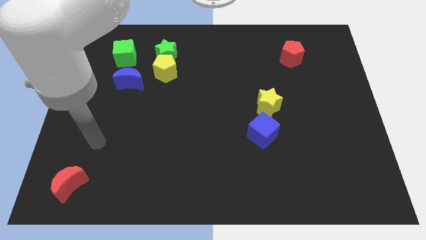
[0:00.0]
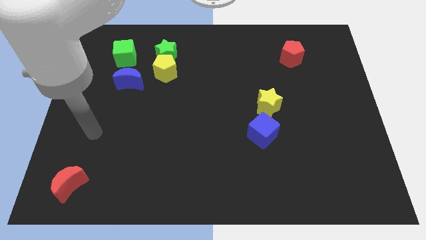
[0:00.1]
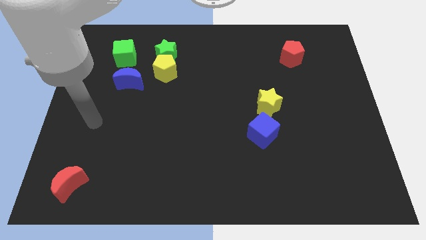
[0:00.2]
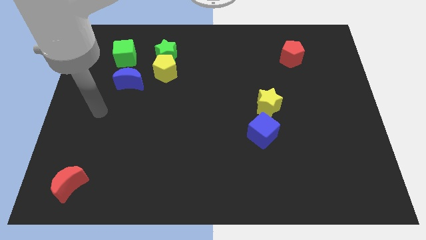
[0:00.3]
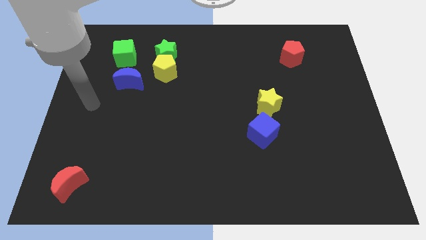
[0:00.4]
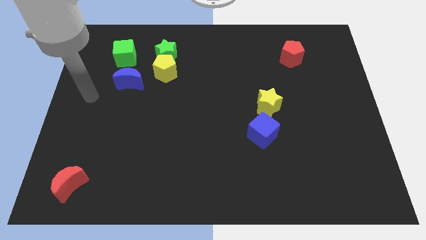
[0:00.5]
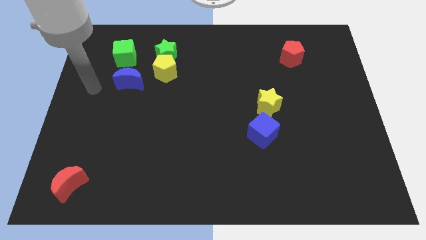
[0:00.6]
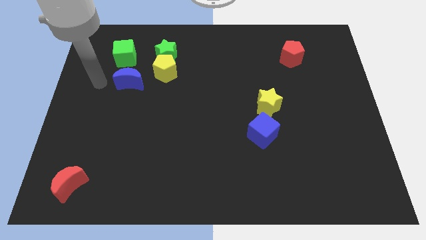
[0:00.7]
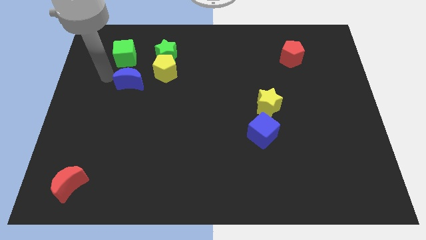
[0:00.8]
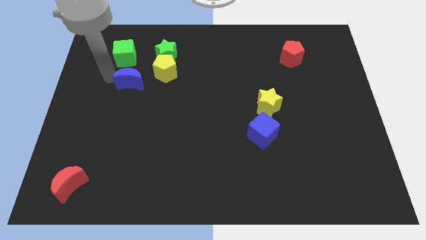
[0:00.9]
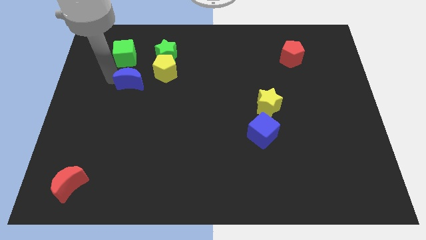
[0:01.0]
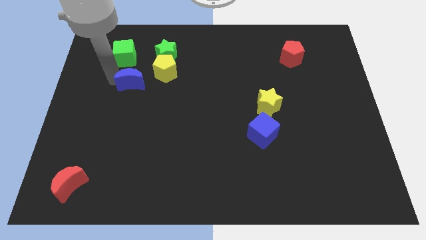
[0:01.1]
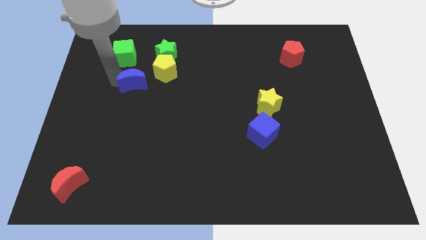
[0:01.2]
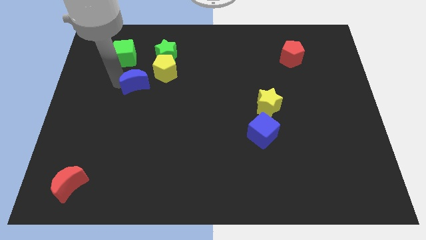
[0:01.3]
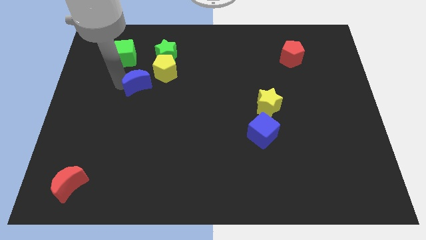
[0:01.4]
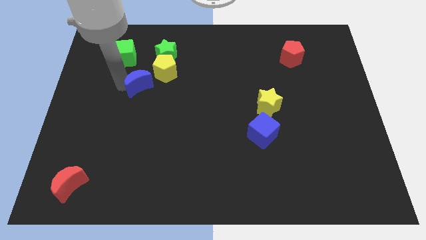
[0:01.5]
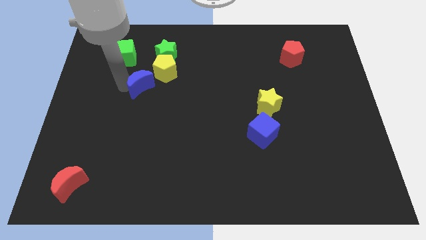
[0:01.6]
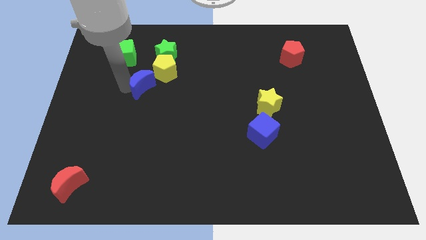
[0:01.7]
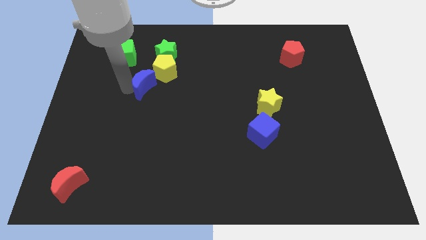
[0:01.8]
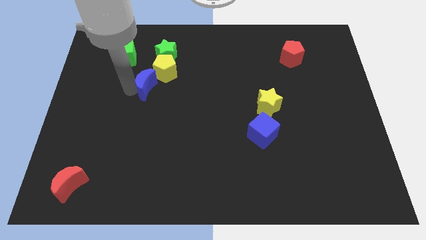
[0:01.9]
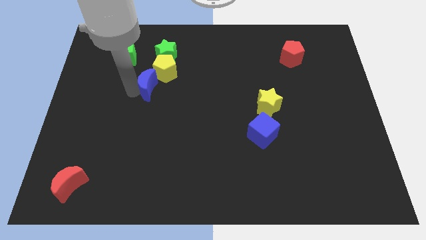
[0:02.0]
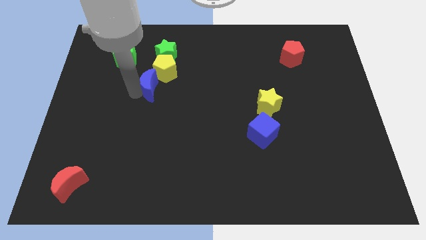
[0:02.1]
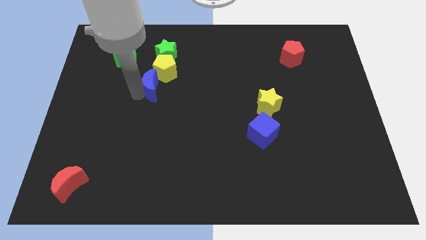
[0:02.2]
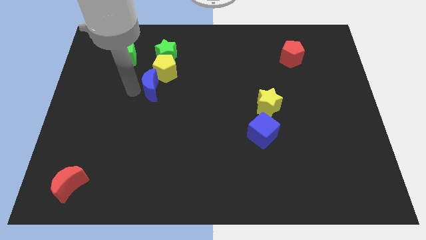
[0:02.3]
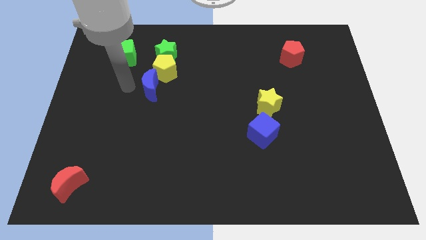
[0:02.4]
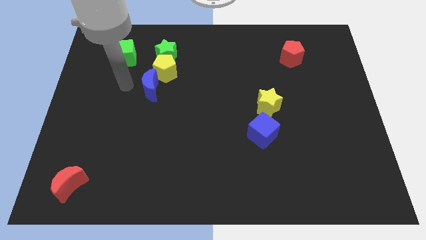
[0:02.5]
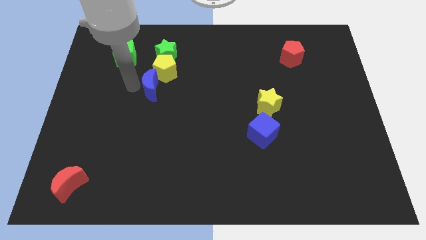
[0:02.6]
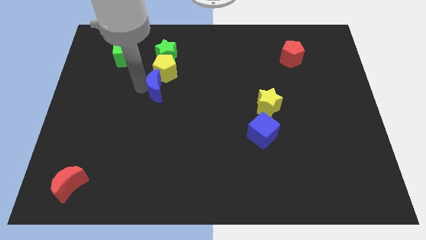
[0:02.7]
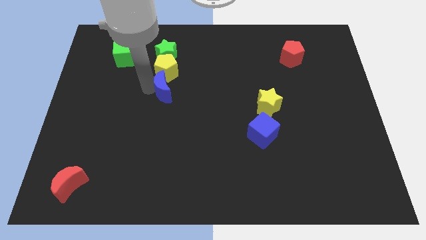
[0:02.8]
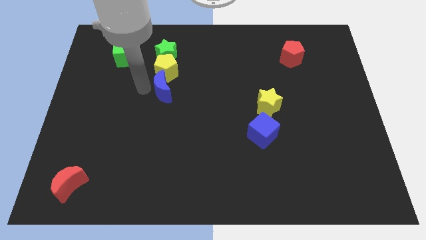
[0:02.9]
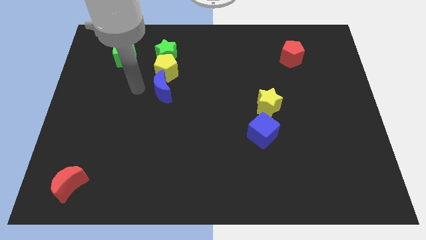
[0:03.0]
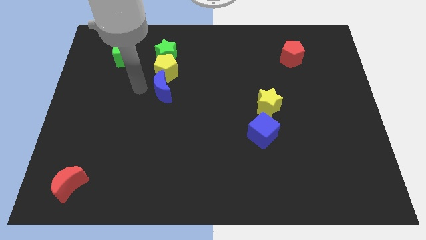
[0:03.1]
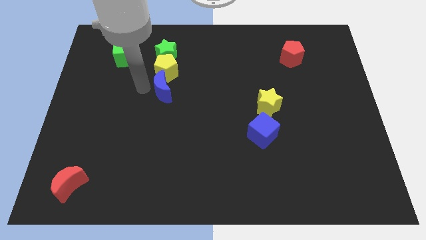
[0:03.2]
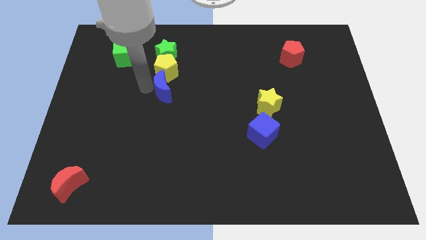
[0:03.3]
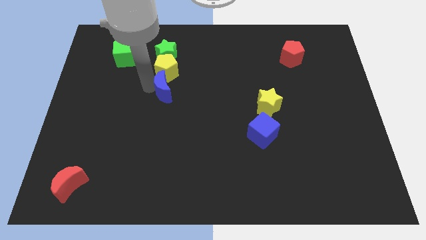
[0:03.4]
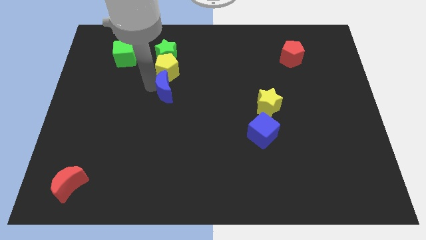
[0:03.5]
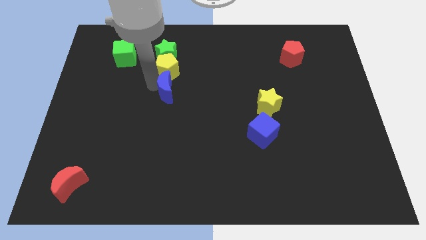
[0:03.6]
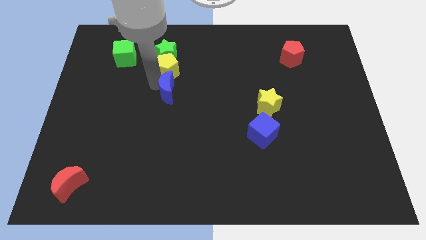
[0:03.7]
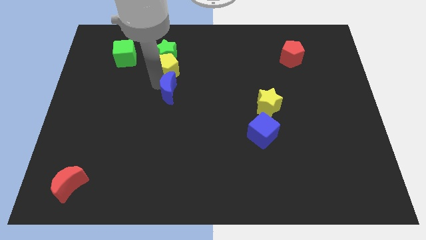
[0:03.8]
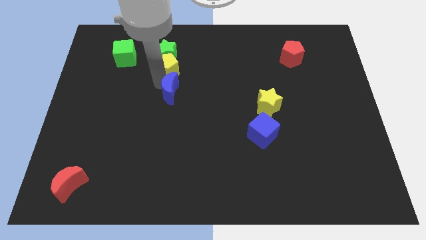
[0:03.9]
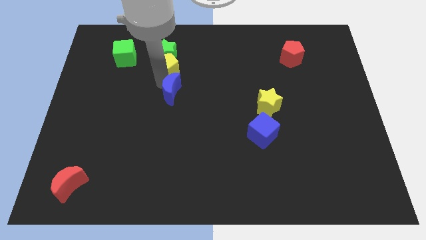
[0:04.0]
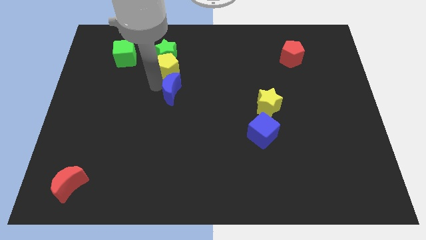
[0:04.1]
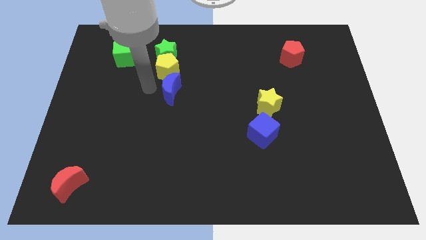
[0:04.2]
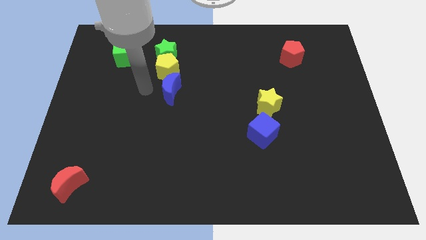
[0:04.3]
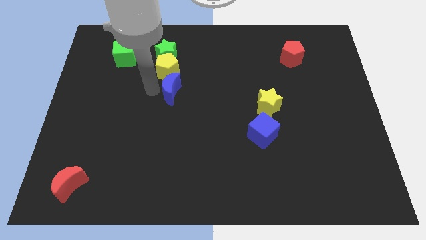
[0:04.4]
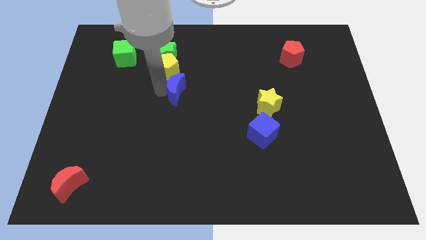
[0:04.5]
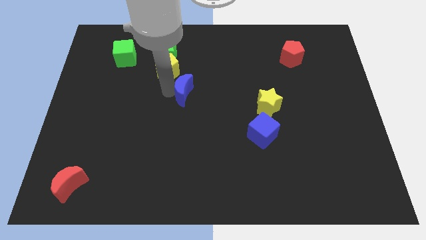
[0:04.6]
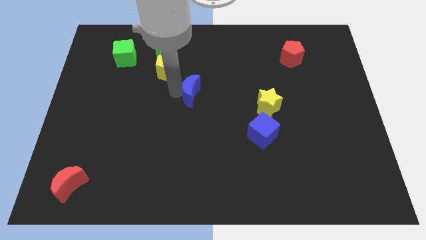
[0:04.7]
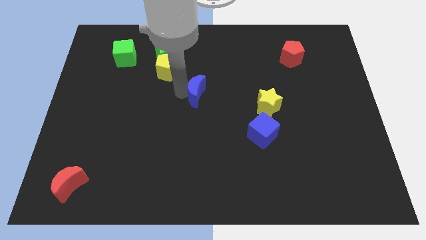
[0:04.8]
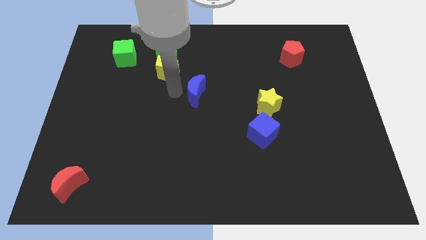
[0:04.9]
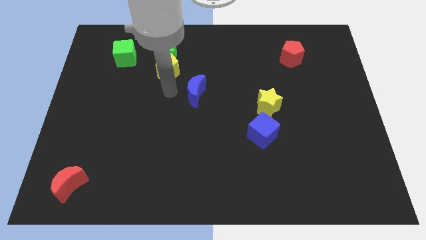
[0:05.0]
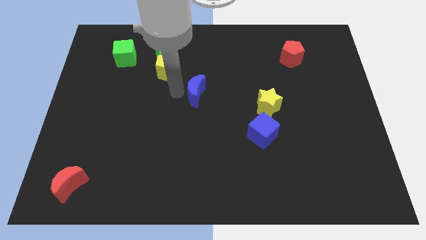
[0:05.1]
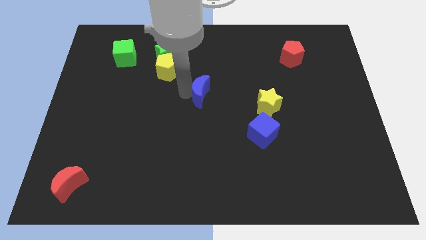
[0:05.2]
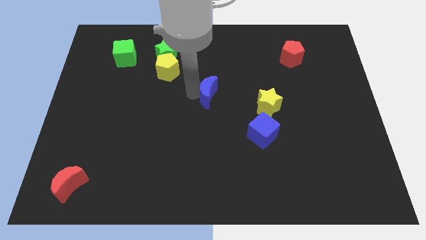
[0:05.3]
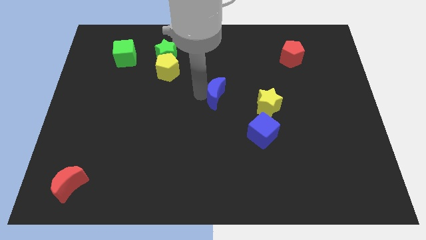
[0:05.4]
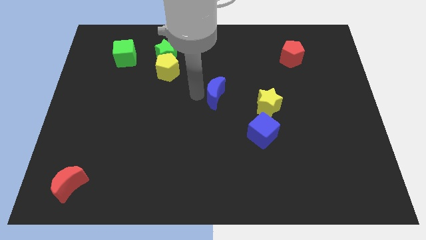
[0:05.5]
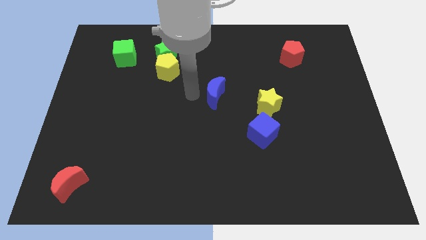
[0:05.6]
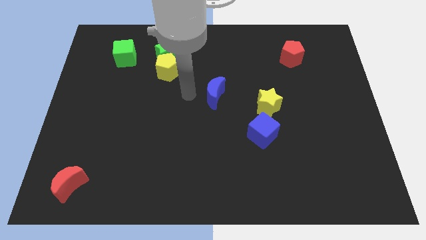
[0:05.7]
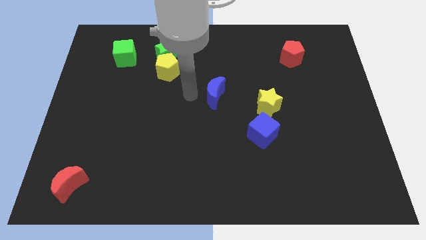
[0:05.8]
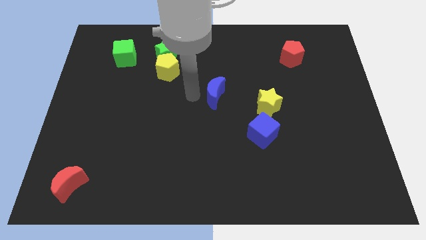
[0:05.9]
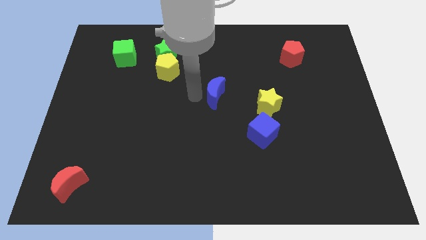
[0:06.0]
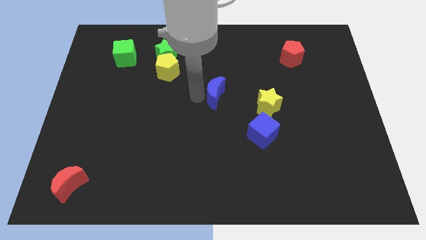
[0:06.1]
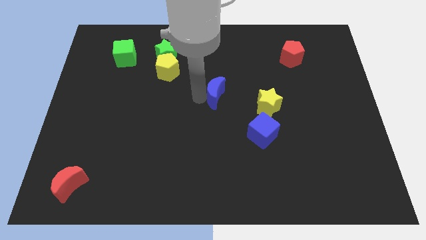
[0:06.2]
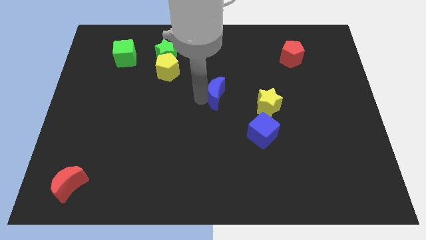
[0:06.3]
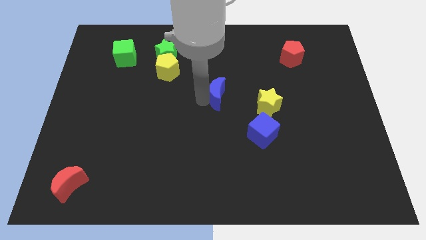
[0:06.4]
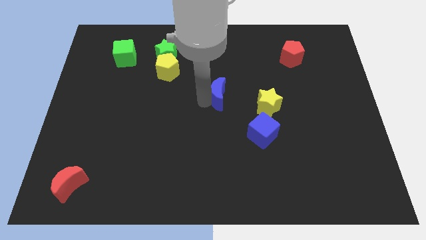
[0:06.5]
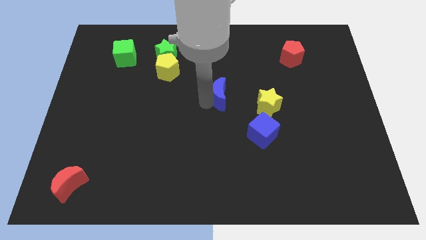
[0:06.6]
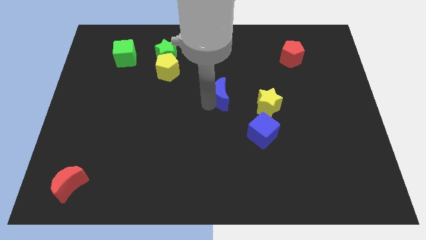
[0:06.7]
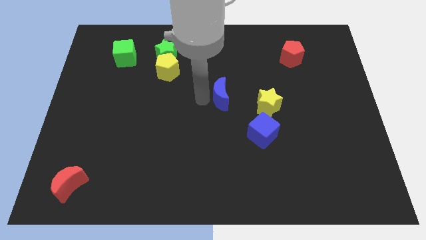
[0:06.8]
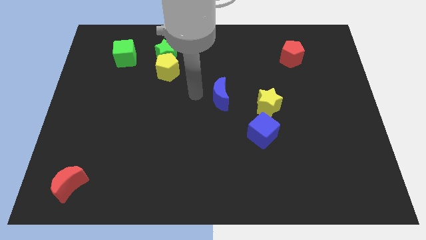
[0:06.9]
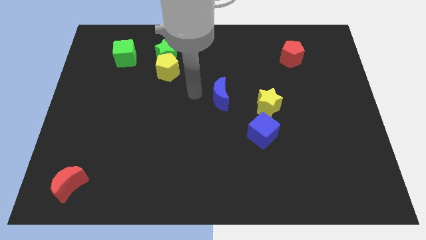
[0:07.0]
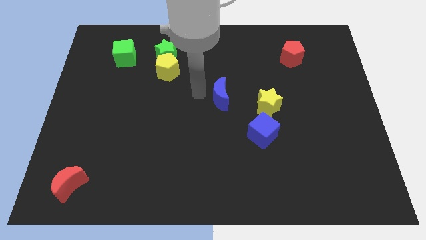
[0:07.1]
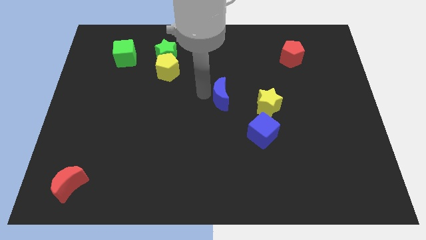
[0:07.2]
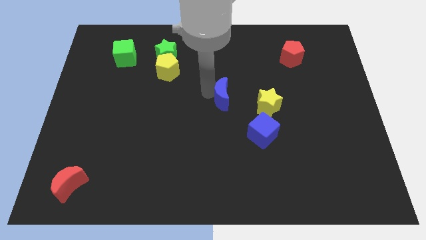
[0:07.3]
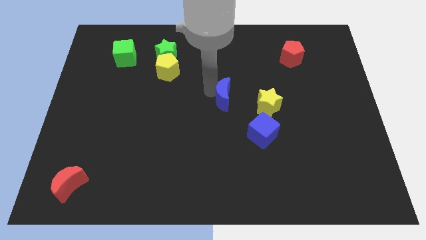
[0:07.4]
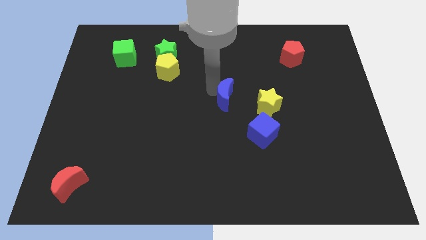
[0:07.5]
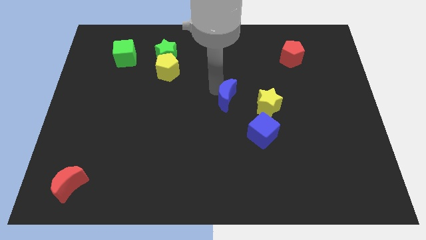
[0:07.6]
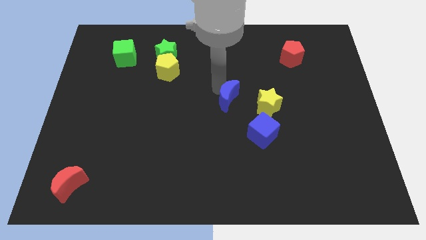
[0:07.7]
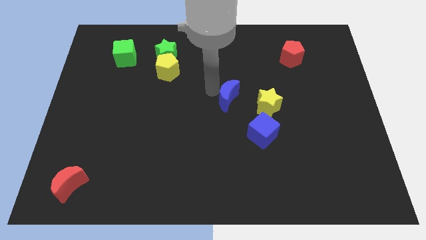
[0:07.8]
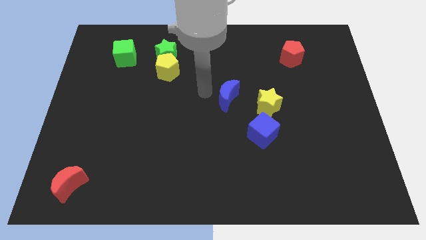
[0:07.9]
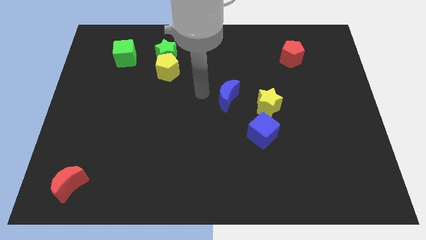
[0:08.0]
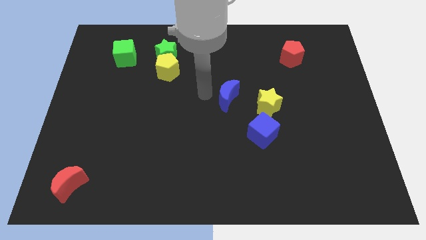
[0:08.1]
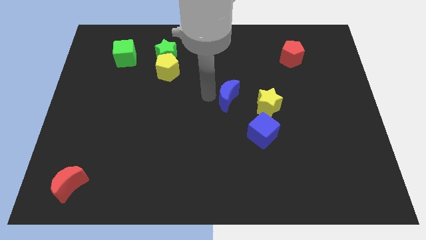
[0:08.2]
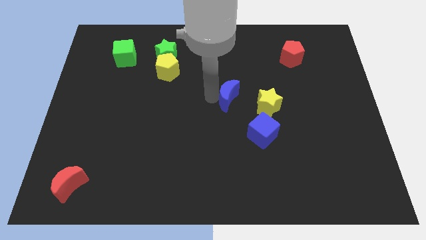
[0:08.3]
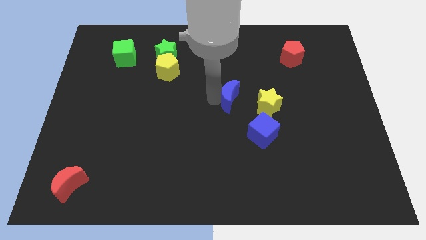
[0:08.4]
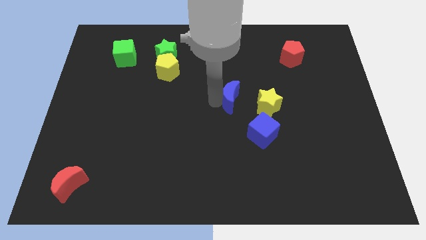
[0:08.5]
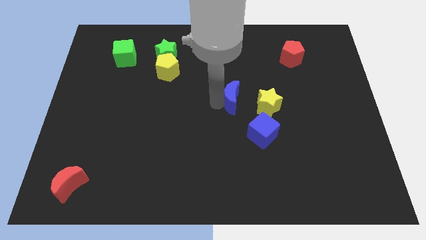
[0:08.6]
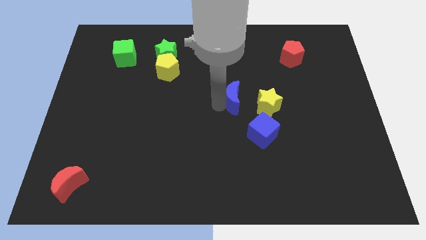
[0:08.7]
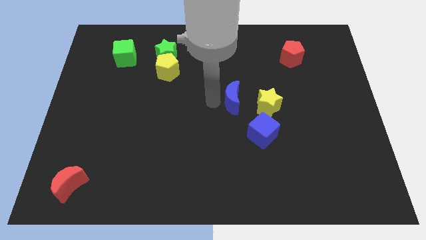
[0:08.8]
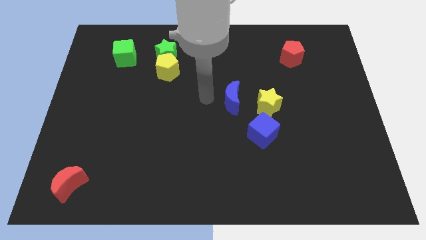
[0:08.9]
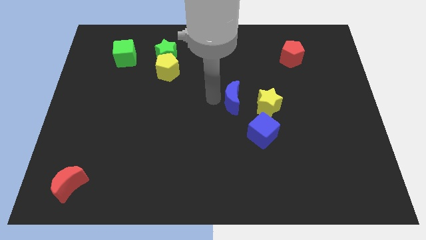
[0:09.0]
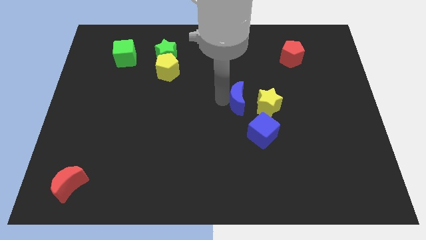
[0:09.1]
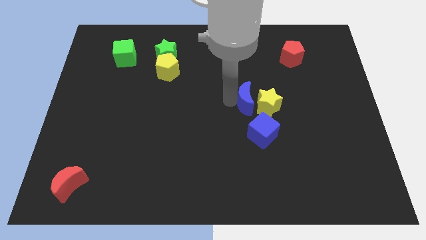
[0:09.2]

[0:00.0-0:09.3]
put the blue moon close to the yellow star
